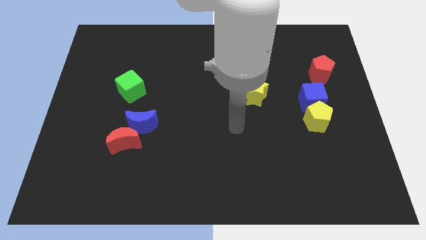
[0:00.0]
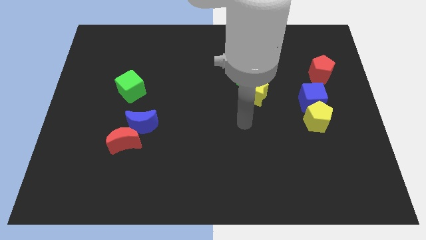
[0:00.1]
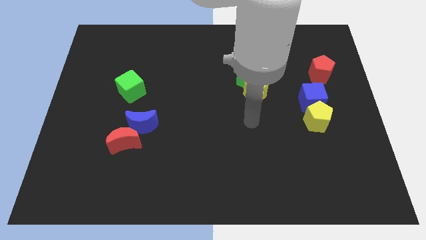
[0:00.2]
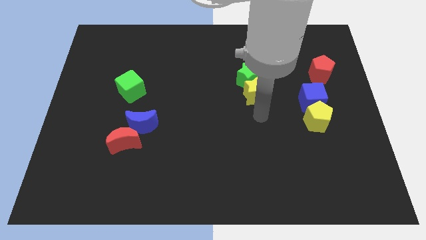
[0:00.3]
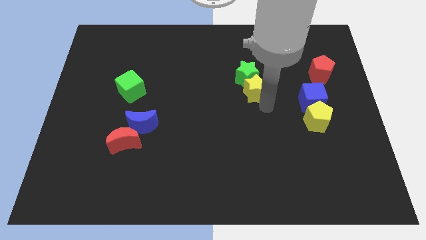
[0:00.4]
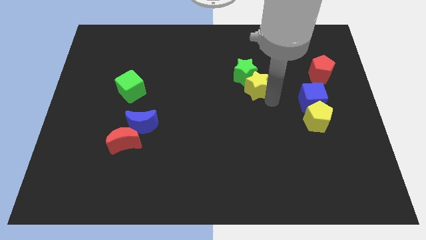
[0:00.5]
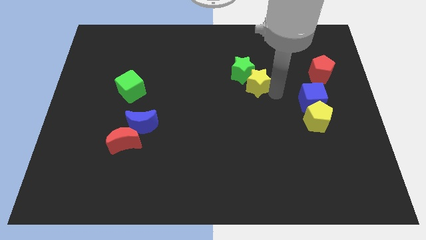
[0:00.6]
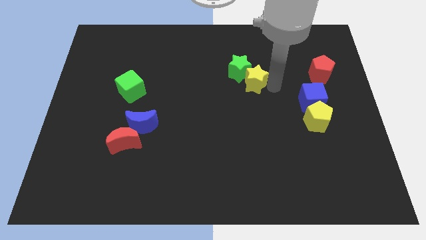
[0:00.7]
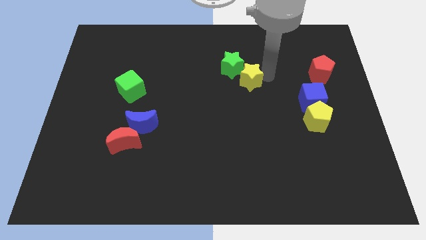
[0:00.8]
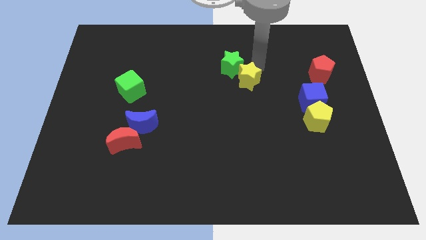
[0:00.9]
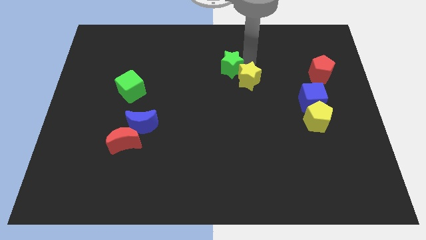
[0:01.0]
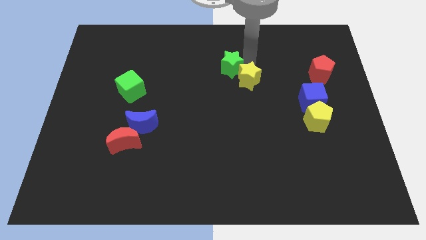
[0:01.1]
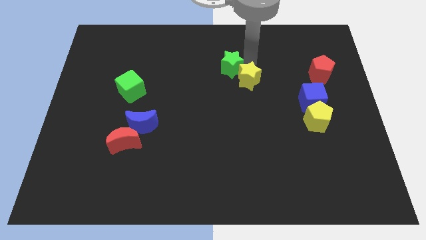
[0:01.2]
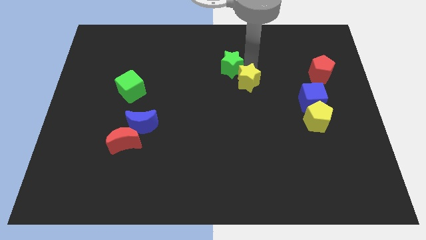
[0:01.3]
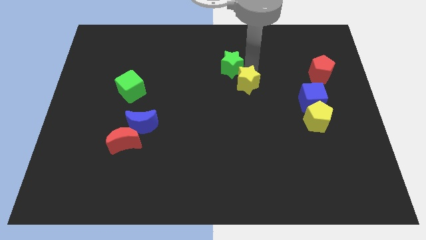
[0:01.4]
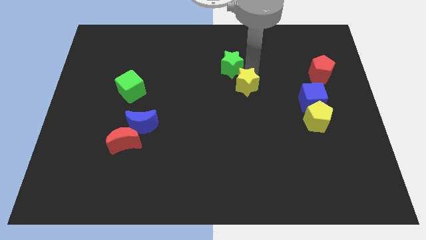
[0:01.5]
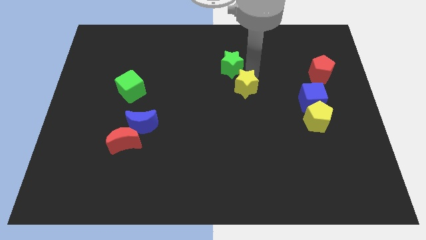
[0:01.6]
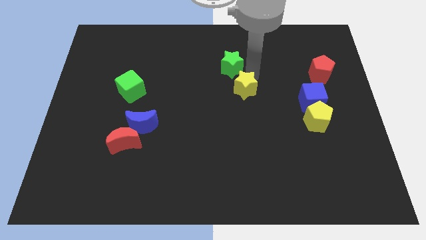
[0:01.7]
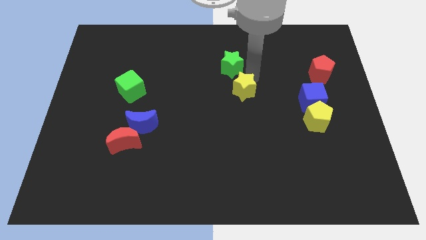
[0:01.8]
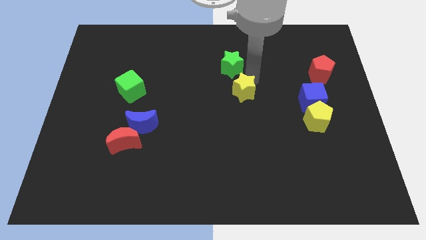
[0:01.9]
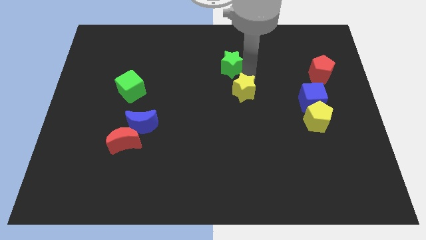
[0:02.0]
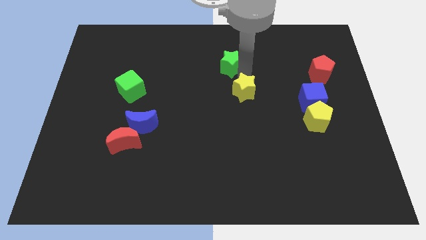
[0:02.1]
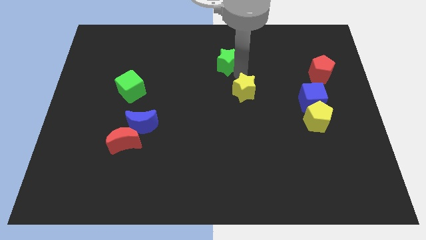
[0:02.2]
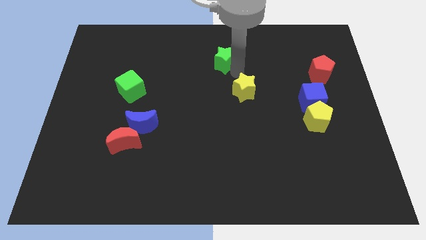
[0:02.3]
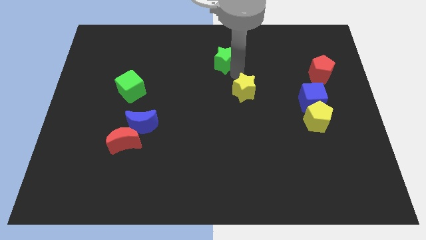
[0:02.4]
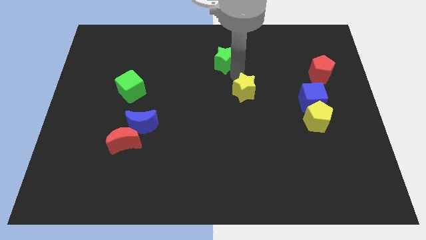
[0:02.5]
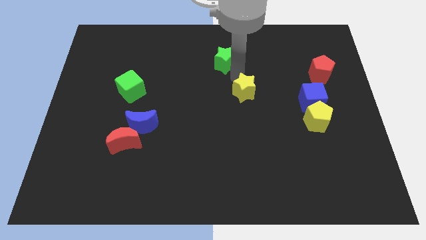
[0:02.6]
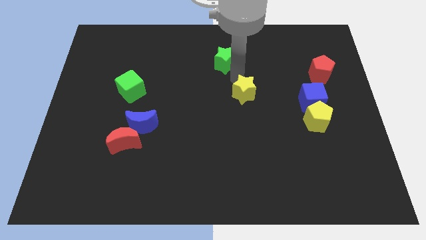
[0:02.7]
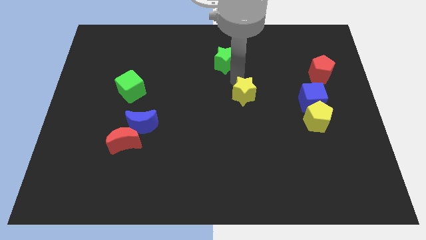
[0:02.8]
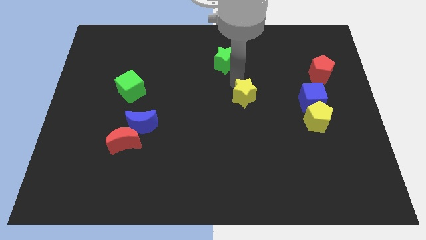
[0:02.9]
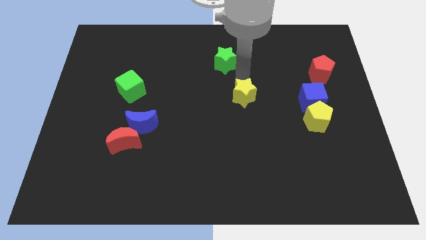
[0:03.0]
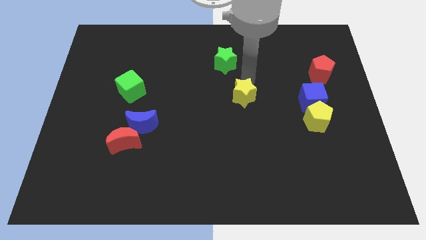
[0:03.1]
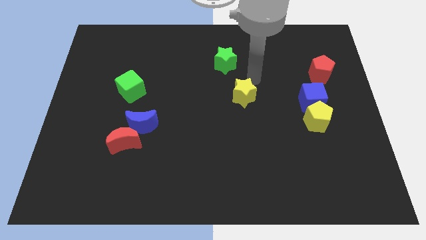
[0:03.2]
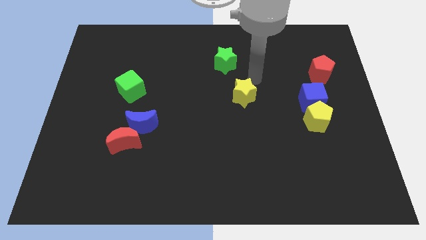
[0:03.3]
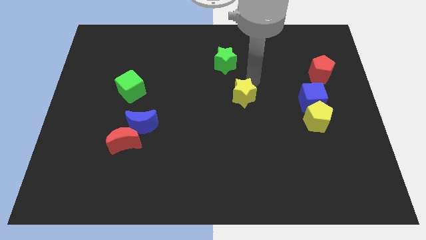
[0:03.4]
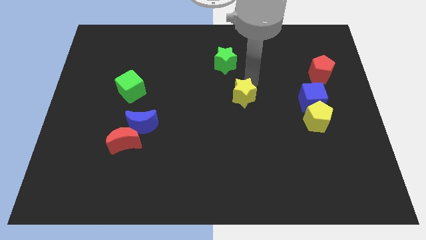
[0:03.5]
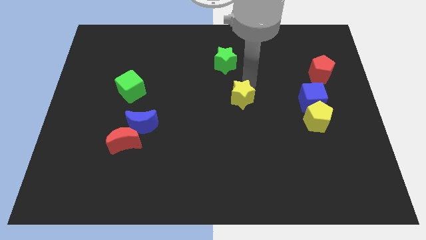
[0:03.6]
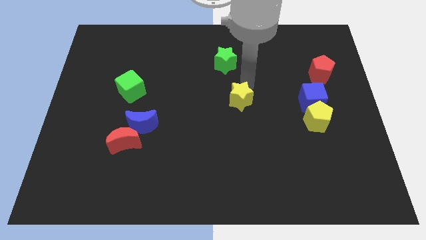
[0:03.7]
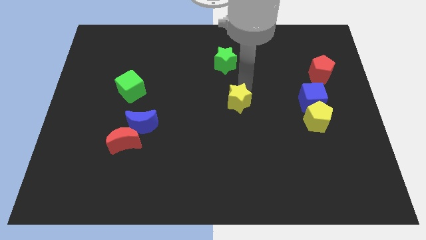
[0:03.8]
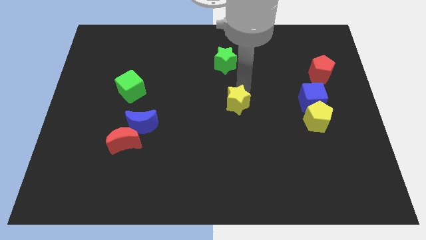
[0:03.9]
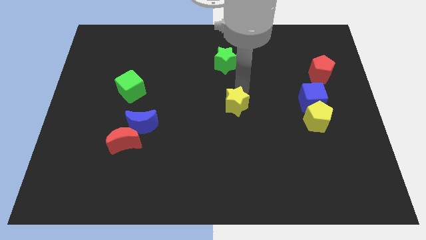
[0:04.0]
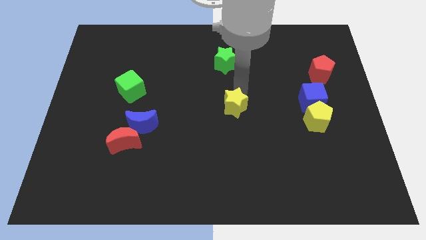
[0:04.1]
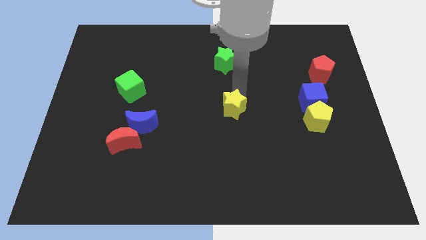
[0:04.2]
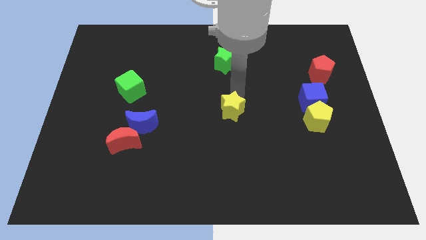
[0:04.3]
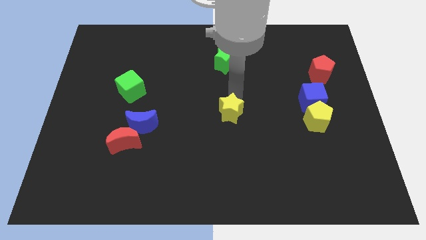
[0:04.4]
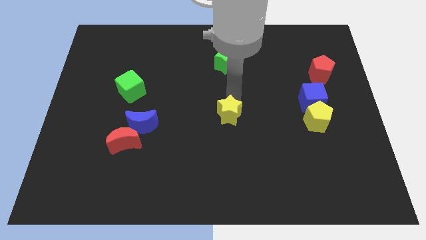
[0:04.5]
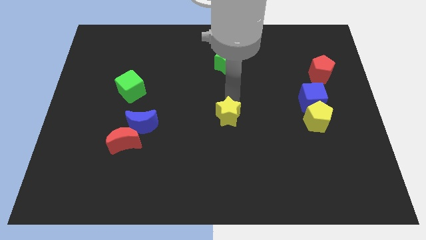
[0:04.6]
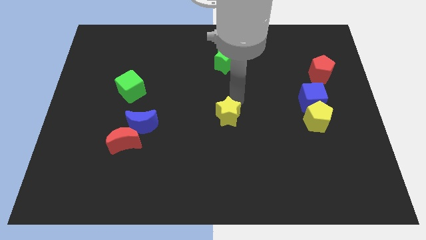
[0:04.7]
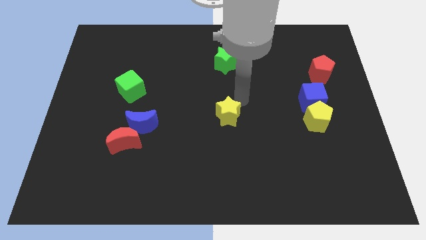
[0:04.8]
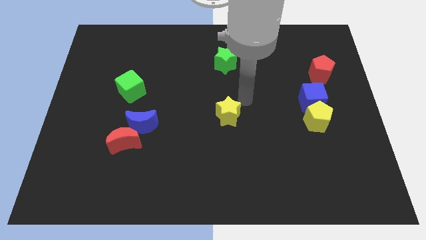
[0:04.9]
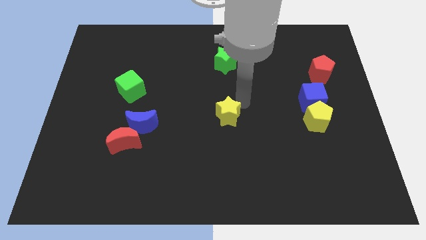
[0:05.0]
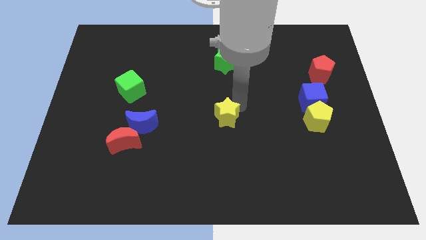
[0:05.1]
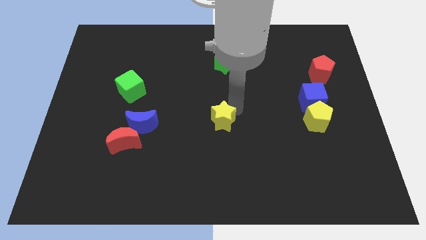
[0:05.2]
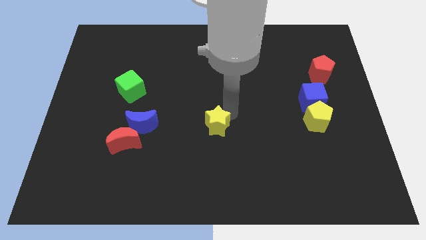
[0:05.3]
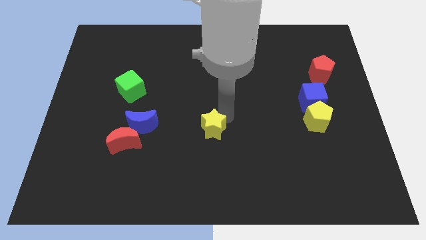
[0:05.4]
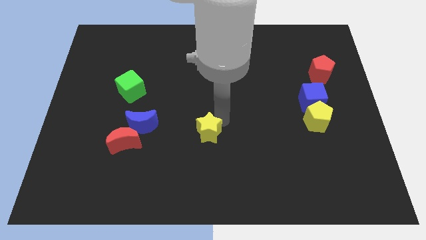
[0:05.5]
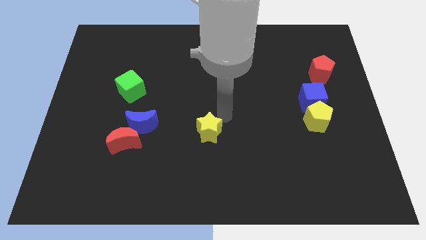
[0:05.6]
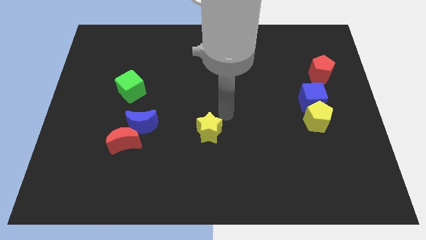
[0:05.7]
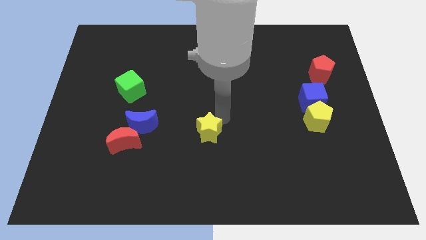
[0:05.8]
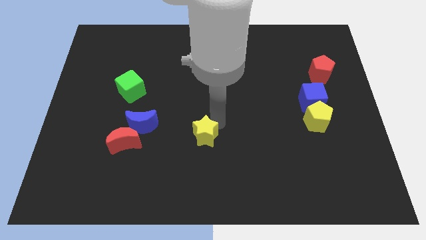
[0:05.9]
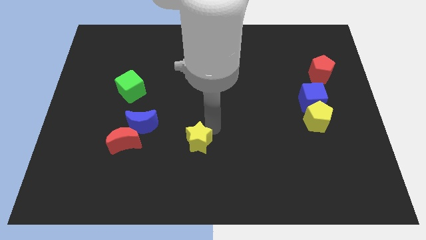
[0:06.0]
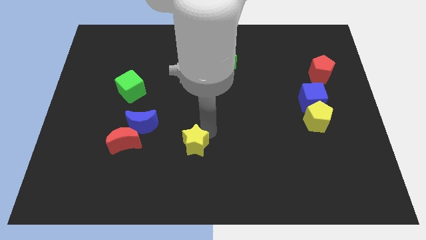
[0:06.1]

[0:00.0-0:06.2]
move the yellow star downwards and left

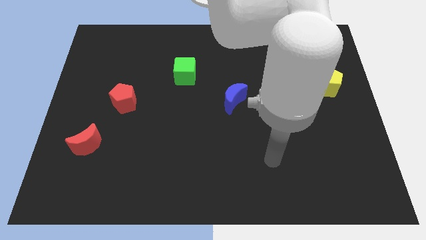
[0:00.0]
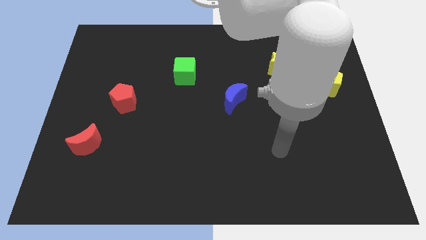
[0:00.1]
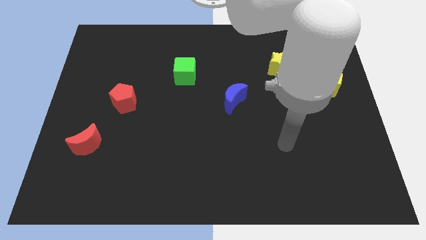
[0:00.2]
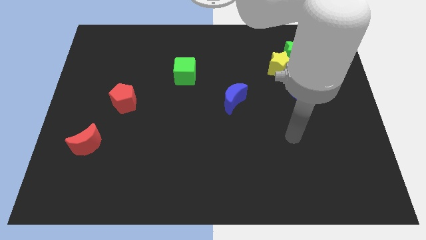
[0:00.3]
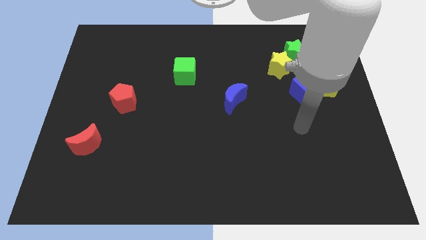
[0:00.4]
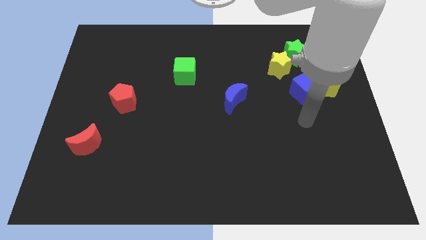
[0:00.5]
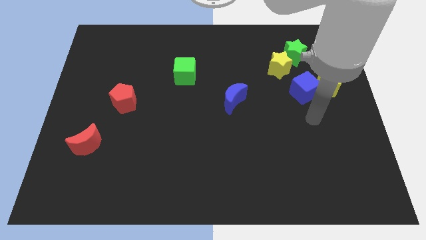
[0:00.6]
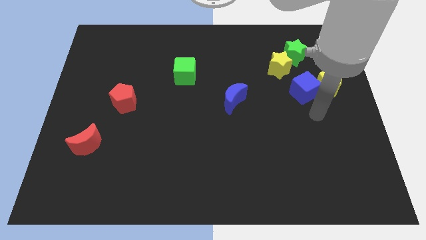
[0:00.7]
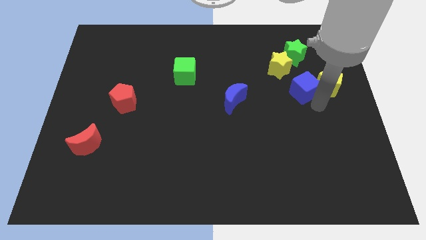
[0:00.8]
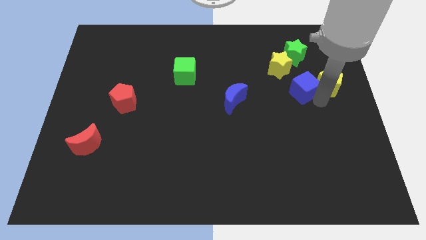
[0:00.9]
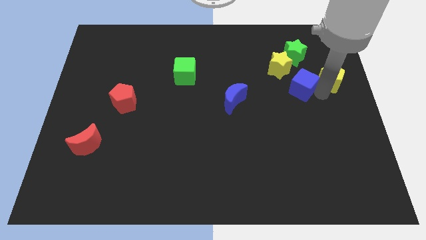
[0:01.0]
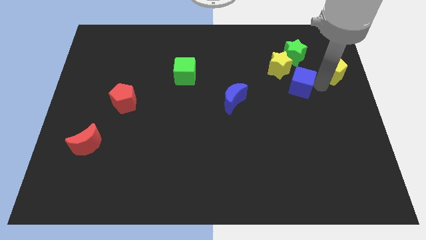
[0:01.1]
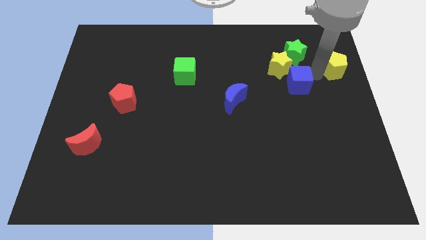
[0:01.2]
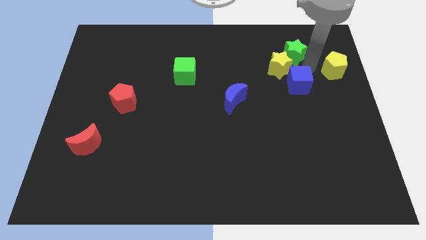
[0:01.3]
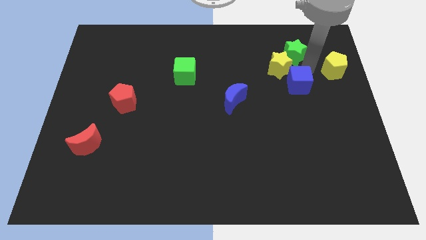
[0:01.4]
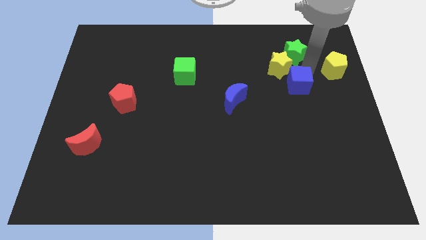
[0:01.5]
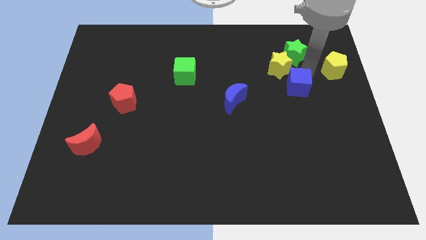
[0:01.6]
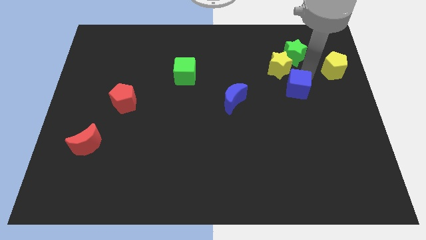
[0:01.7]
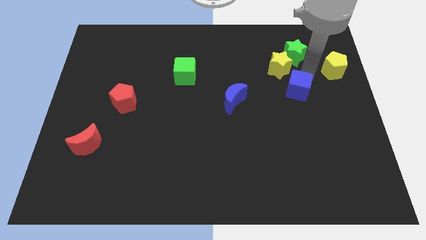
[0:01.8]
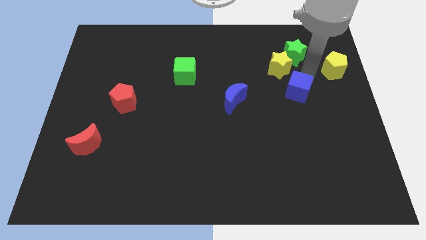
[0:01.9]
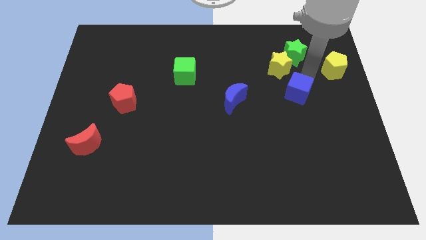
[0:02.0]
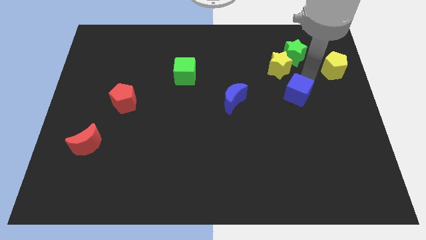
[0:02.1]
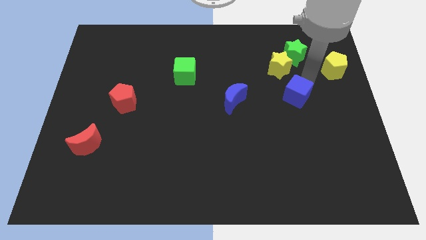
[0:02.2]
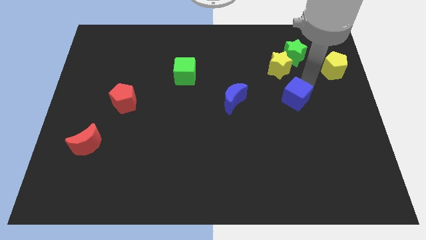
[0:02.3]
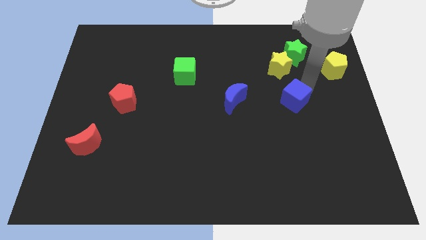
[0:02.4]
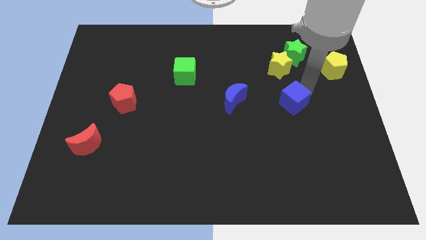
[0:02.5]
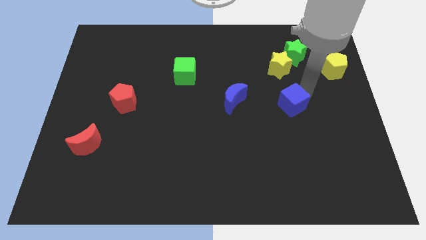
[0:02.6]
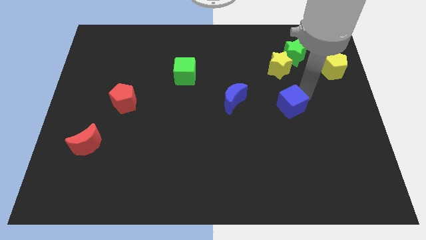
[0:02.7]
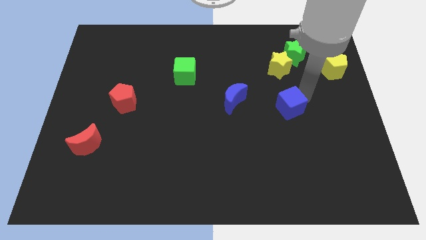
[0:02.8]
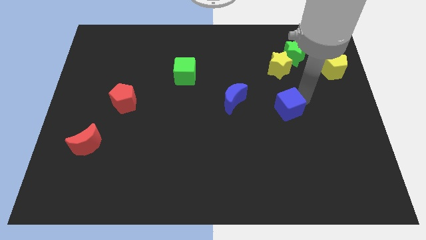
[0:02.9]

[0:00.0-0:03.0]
move the blue cube diagonally downwards and to the left a little bit
